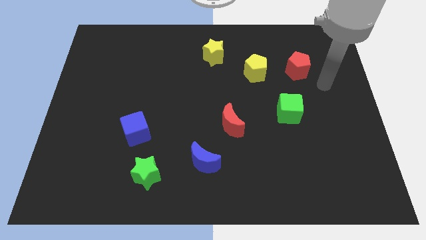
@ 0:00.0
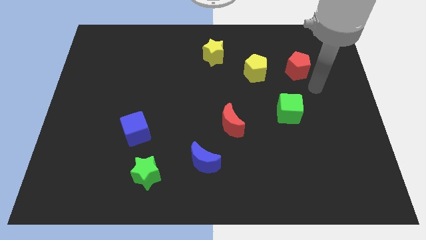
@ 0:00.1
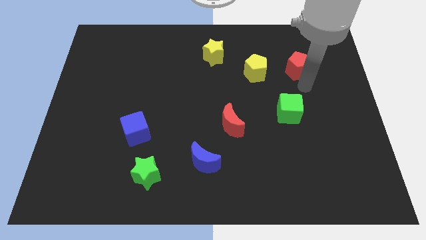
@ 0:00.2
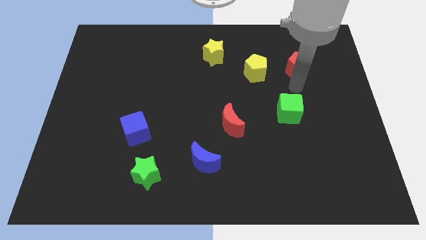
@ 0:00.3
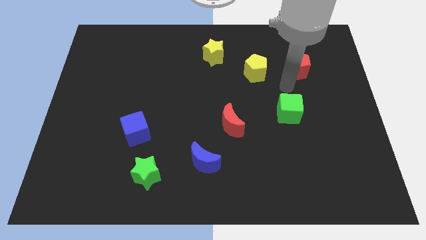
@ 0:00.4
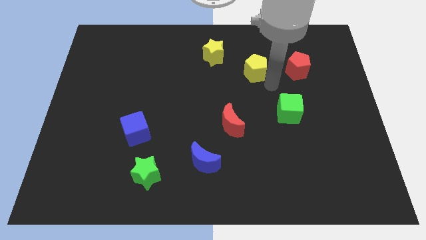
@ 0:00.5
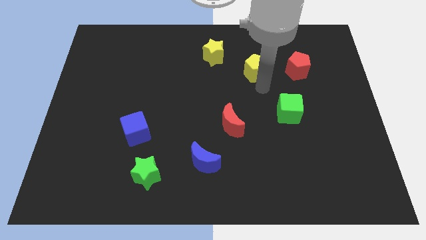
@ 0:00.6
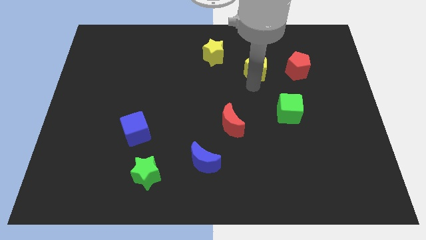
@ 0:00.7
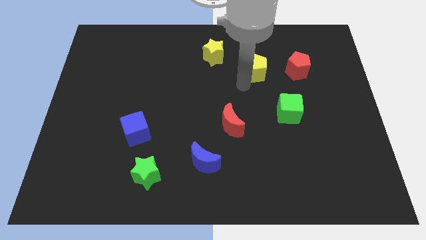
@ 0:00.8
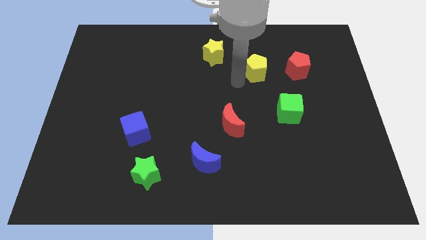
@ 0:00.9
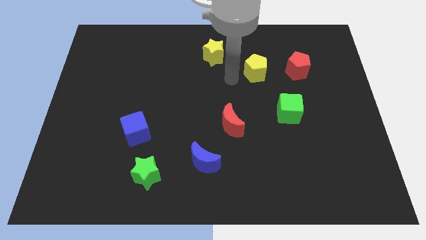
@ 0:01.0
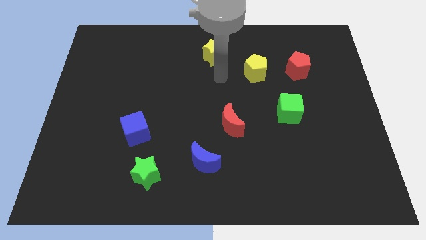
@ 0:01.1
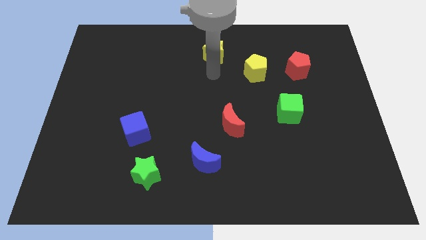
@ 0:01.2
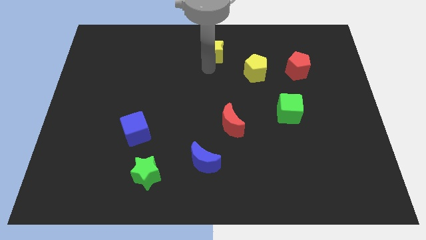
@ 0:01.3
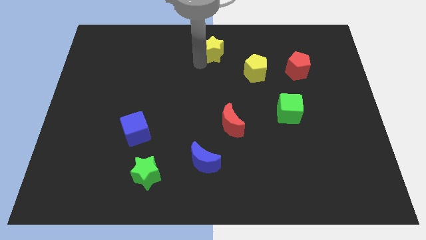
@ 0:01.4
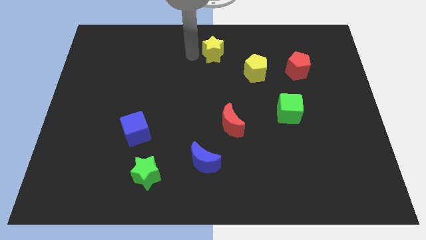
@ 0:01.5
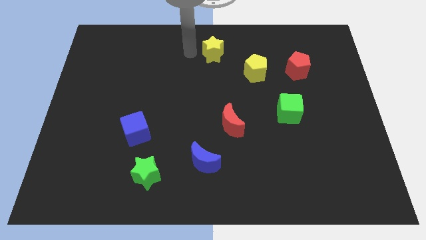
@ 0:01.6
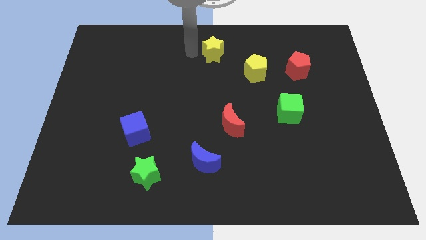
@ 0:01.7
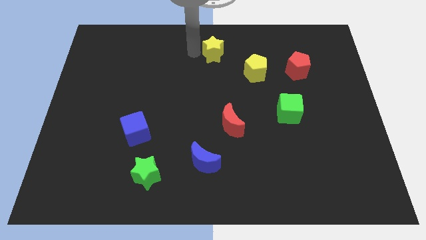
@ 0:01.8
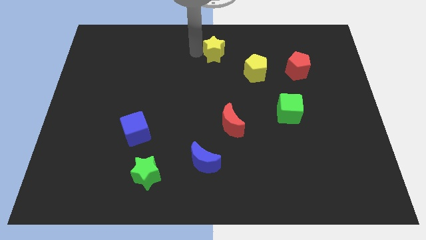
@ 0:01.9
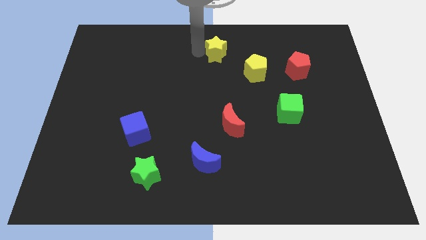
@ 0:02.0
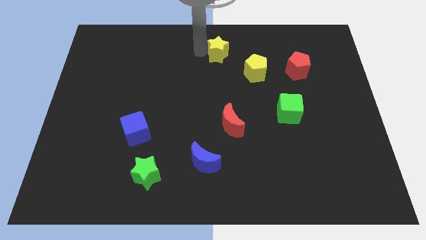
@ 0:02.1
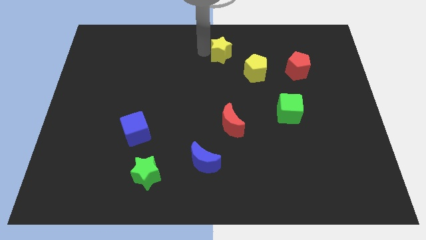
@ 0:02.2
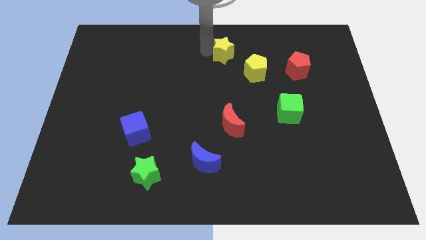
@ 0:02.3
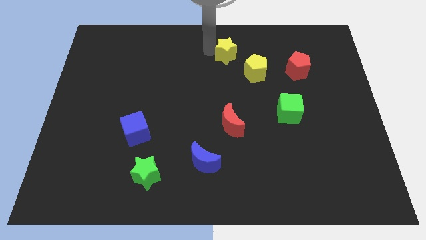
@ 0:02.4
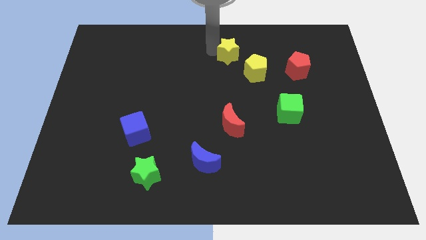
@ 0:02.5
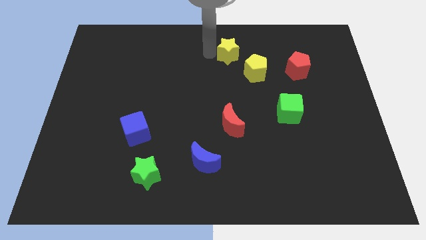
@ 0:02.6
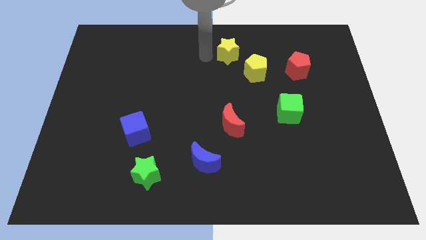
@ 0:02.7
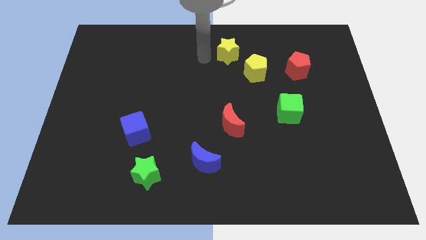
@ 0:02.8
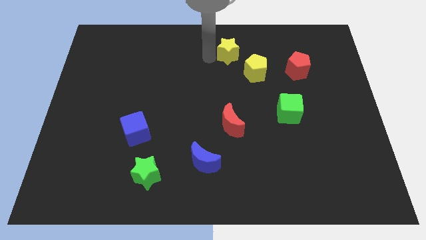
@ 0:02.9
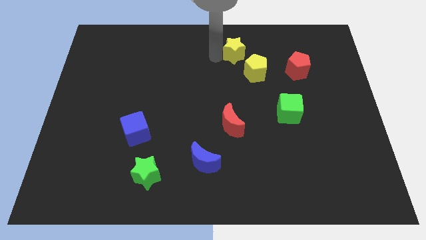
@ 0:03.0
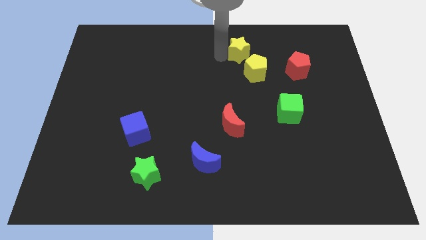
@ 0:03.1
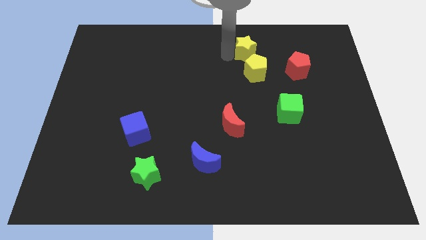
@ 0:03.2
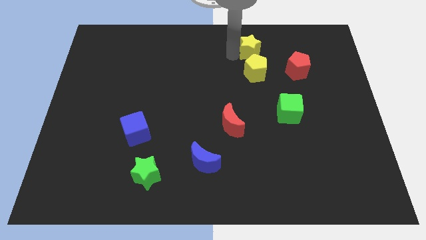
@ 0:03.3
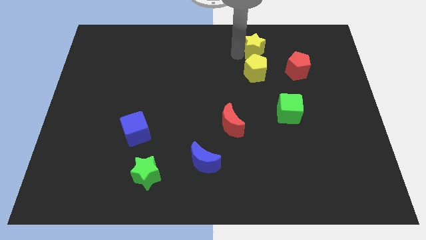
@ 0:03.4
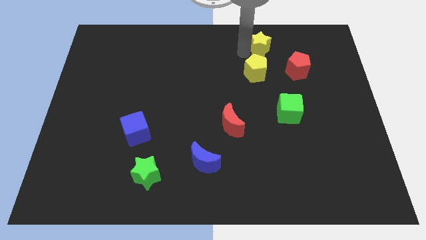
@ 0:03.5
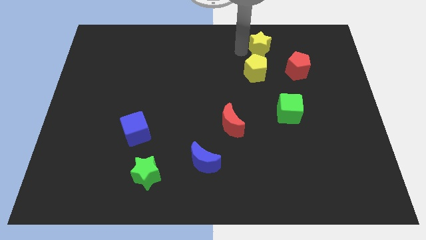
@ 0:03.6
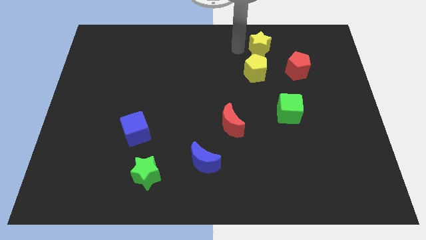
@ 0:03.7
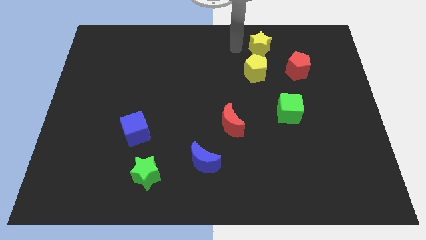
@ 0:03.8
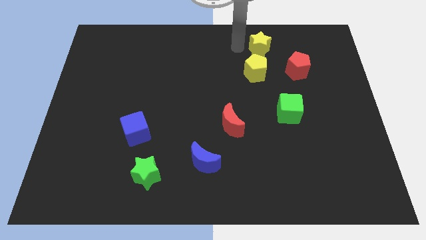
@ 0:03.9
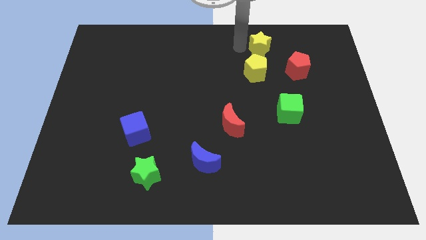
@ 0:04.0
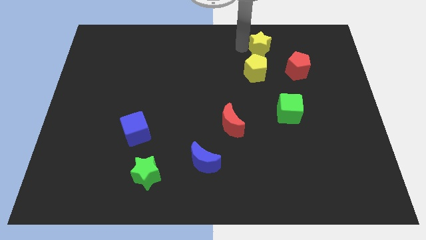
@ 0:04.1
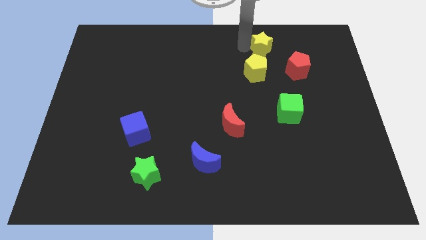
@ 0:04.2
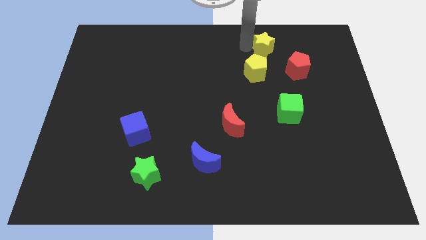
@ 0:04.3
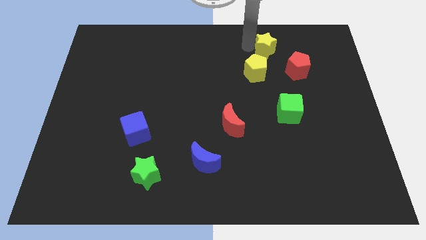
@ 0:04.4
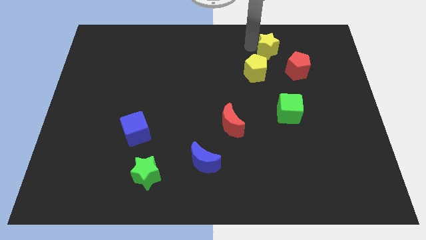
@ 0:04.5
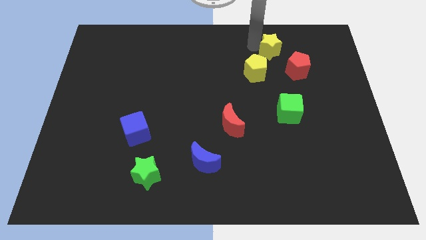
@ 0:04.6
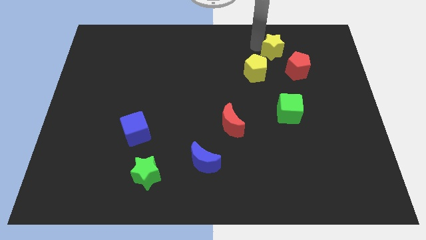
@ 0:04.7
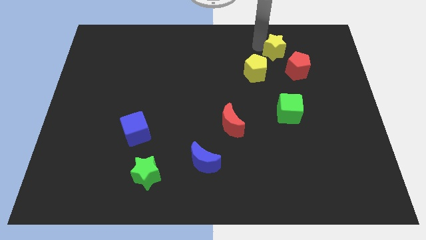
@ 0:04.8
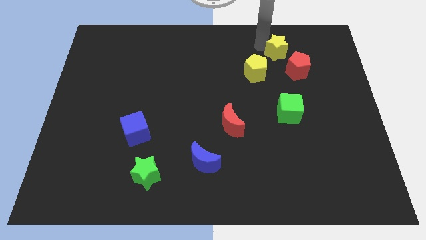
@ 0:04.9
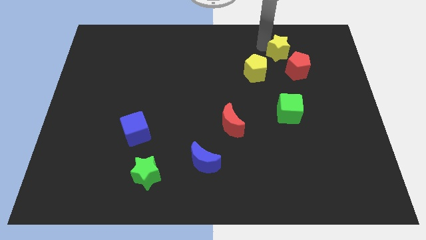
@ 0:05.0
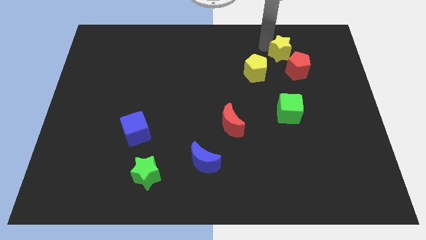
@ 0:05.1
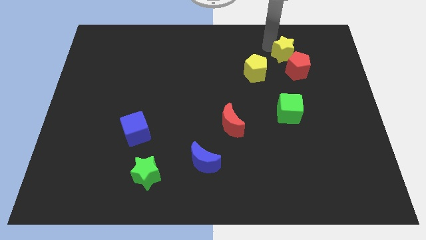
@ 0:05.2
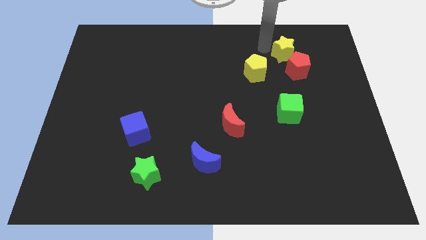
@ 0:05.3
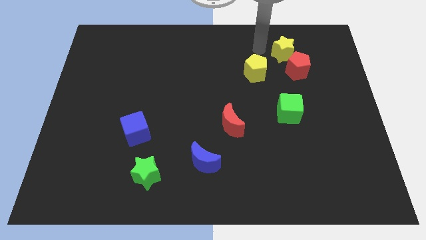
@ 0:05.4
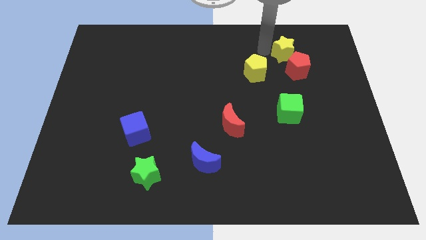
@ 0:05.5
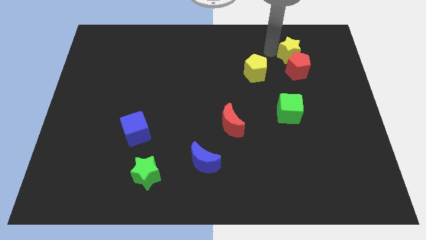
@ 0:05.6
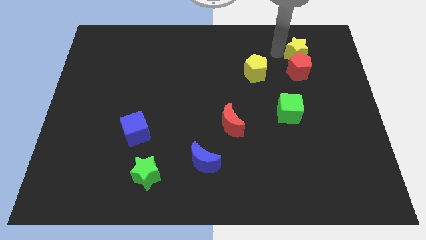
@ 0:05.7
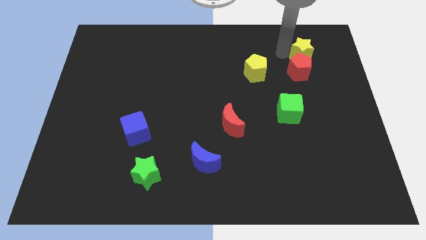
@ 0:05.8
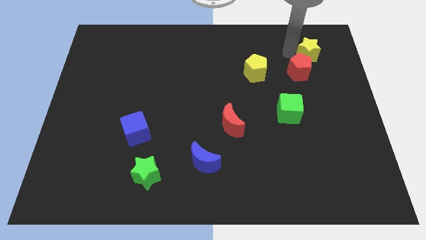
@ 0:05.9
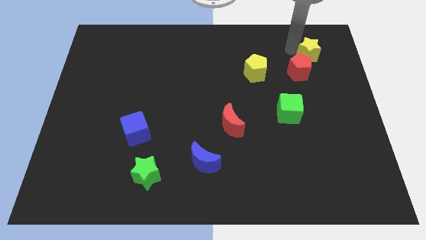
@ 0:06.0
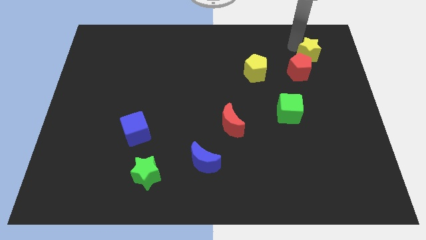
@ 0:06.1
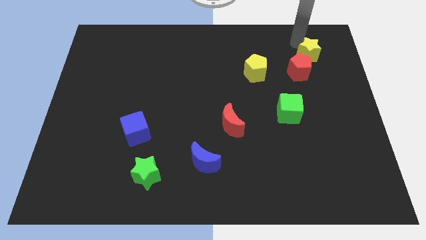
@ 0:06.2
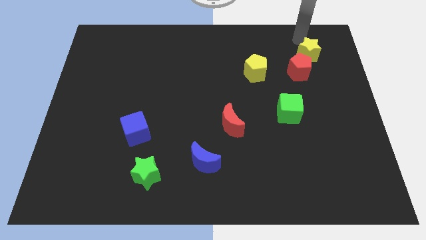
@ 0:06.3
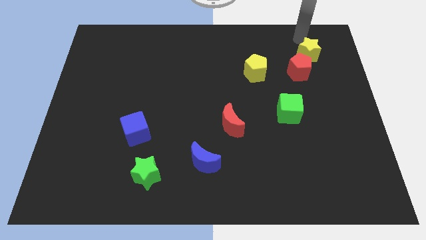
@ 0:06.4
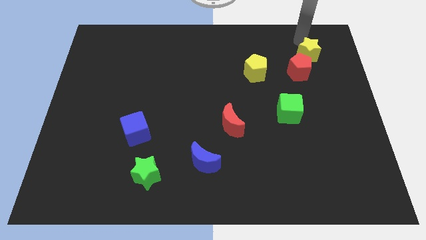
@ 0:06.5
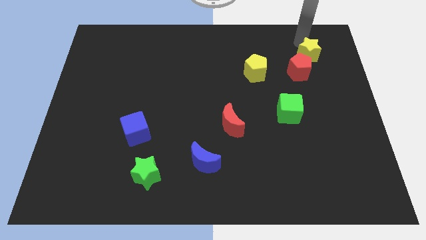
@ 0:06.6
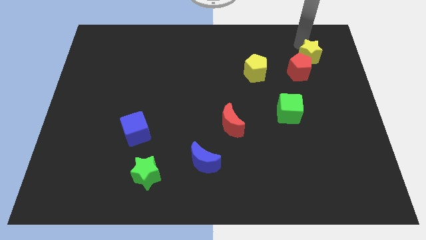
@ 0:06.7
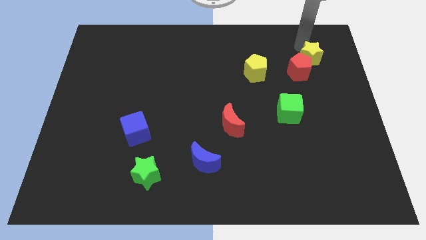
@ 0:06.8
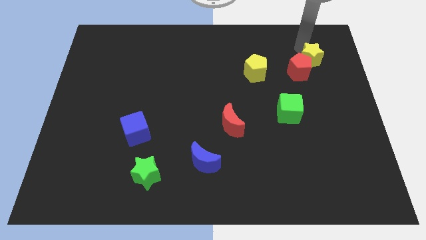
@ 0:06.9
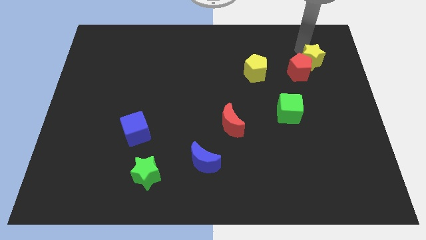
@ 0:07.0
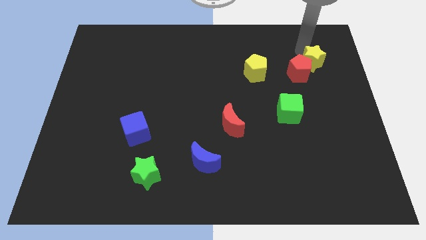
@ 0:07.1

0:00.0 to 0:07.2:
slide the yellow star just right of the yellow pentagon

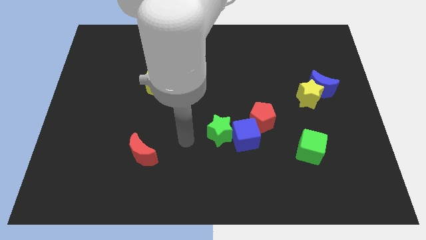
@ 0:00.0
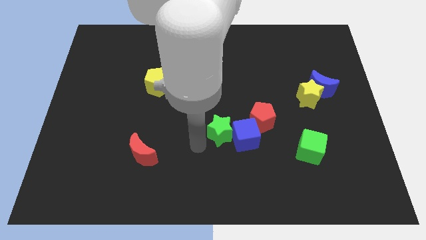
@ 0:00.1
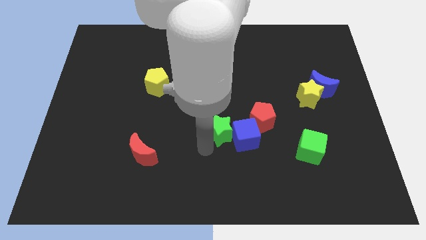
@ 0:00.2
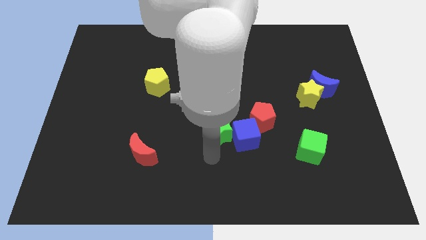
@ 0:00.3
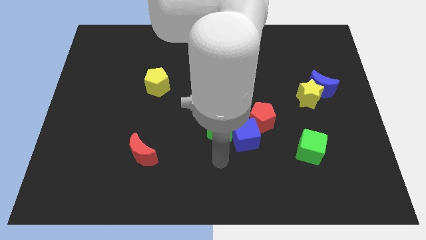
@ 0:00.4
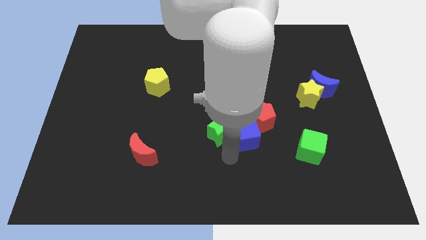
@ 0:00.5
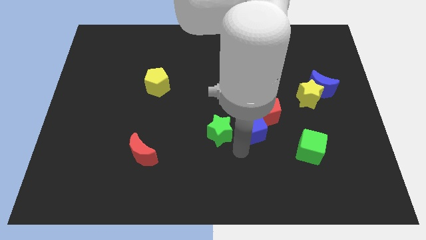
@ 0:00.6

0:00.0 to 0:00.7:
push the red pentagon to the left side of the yellow star
